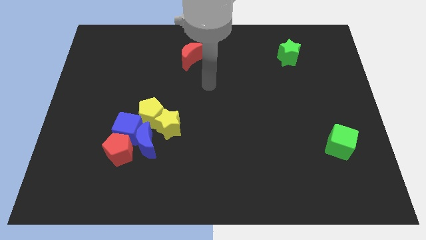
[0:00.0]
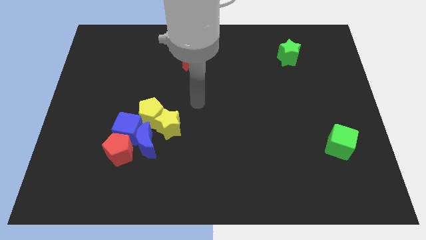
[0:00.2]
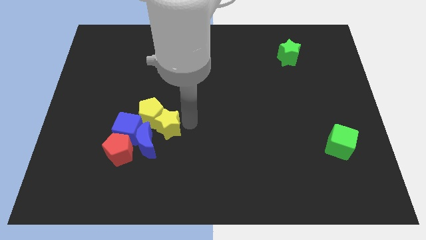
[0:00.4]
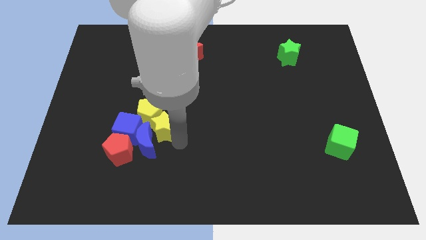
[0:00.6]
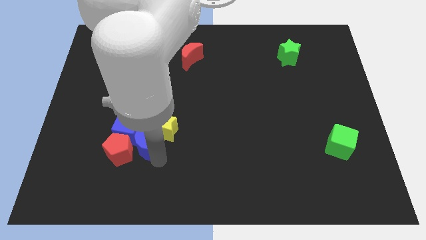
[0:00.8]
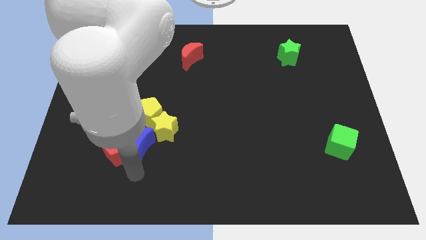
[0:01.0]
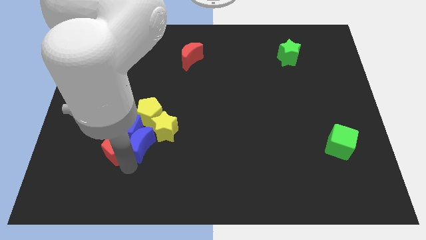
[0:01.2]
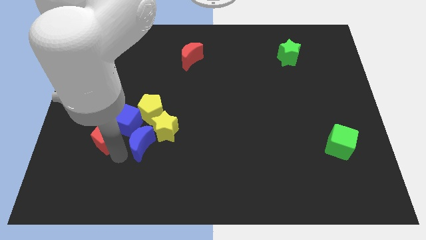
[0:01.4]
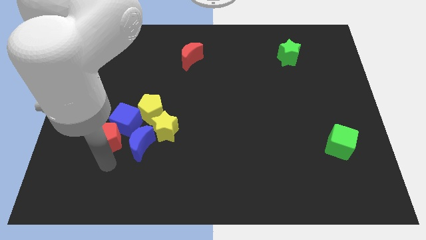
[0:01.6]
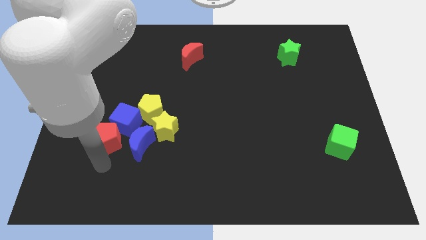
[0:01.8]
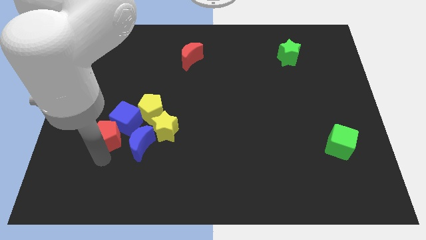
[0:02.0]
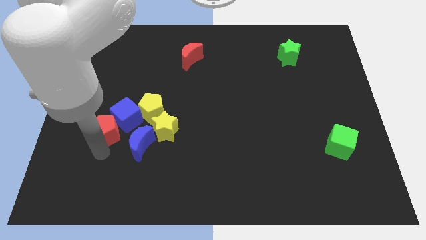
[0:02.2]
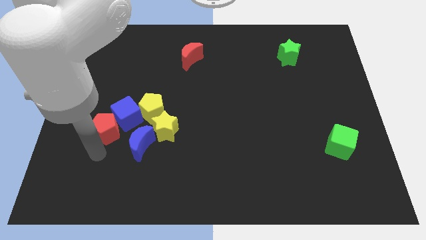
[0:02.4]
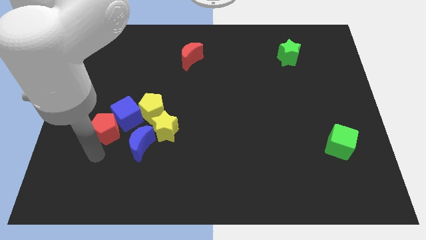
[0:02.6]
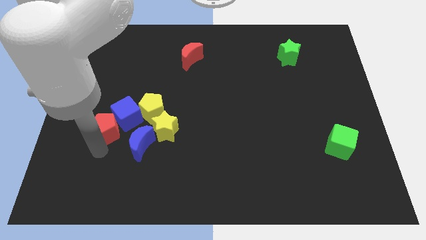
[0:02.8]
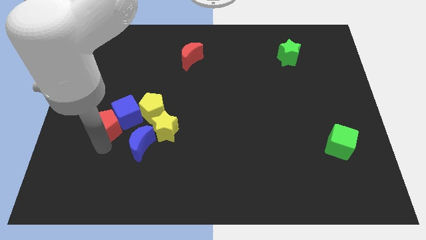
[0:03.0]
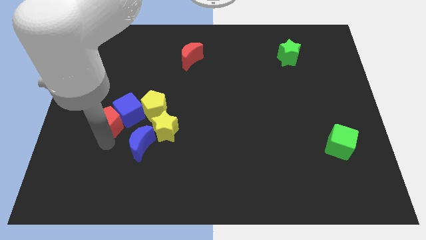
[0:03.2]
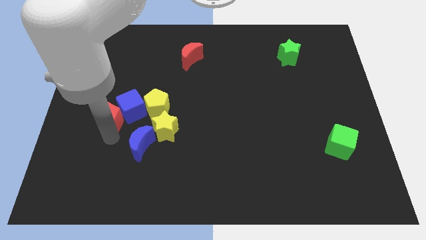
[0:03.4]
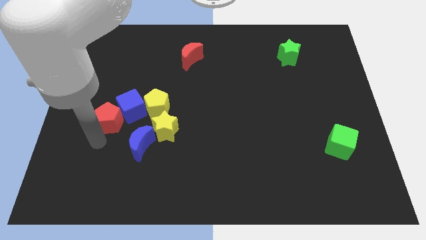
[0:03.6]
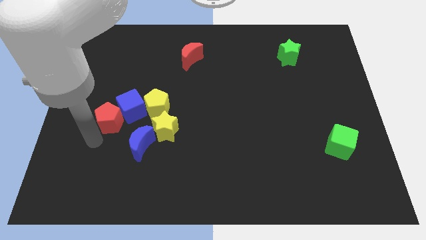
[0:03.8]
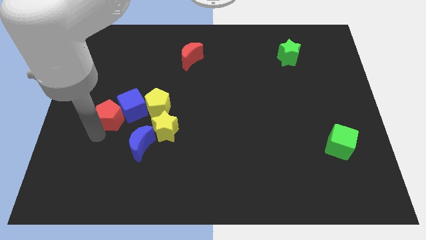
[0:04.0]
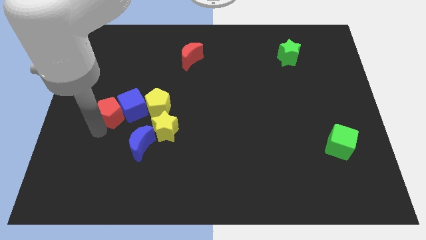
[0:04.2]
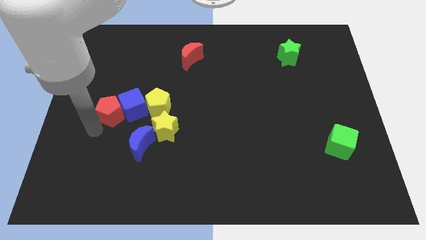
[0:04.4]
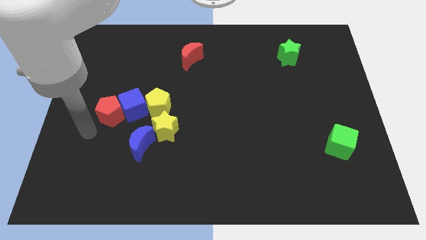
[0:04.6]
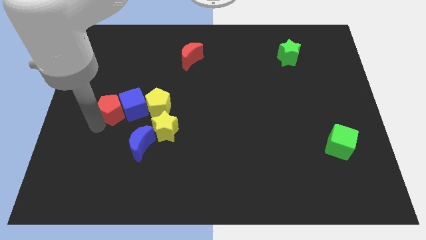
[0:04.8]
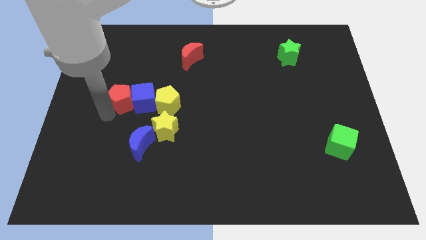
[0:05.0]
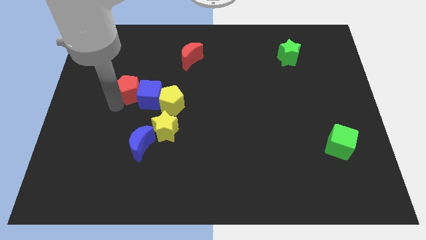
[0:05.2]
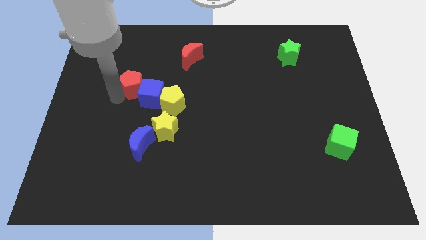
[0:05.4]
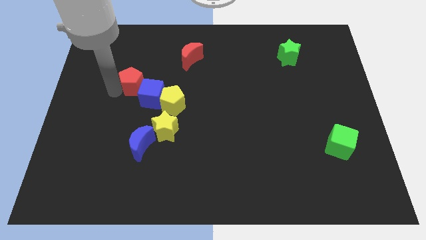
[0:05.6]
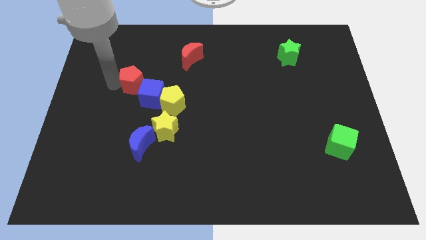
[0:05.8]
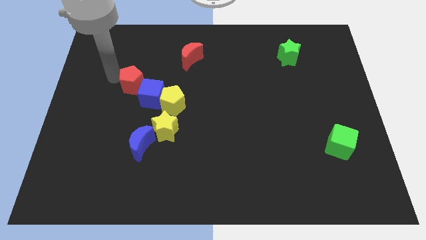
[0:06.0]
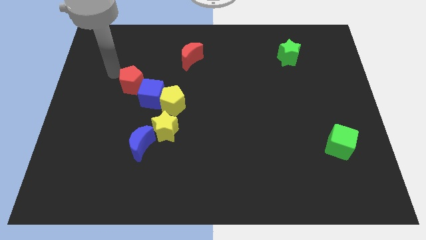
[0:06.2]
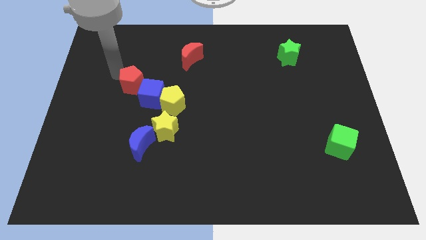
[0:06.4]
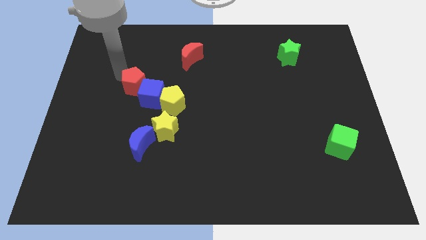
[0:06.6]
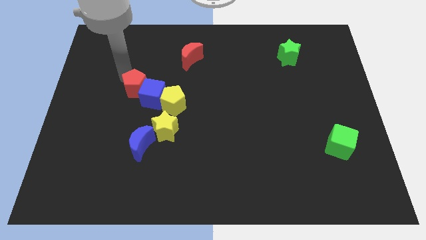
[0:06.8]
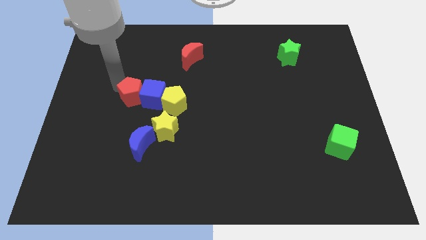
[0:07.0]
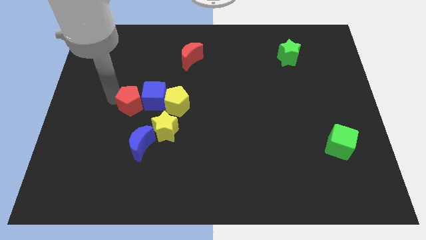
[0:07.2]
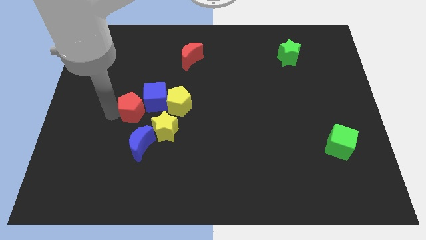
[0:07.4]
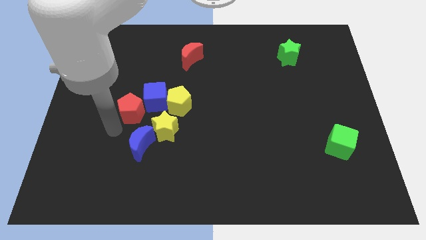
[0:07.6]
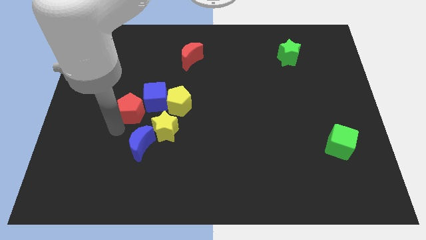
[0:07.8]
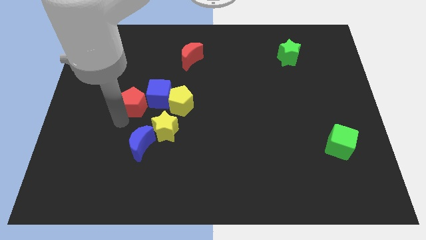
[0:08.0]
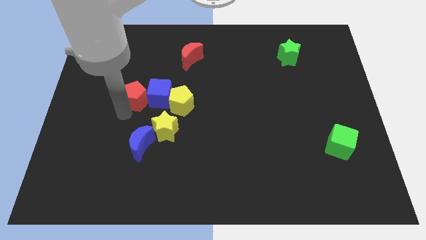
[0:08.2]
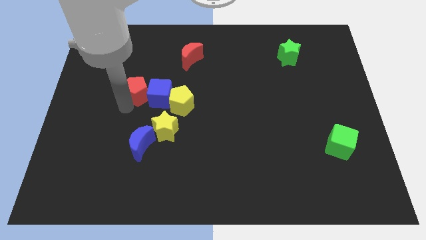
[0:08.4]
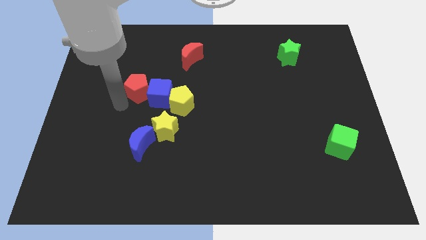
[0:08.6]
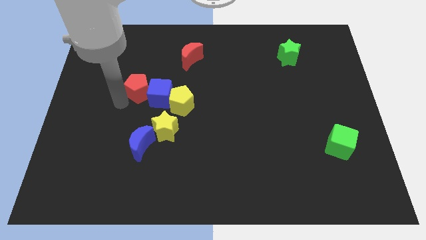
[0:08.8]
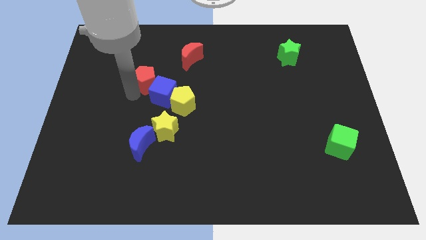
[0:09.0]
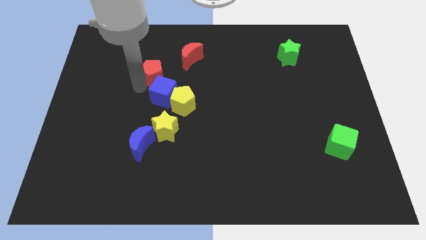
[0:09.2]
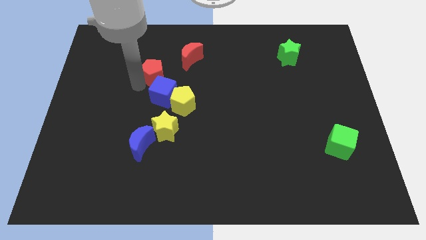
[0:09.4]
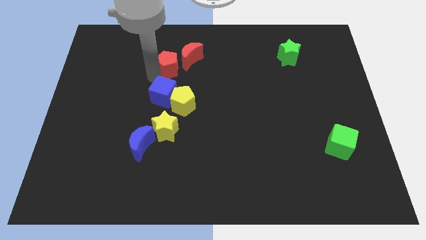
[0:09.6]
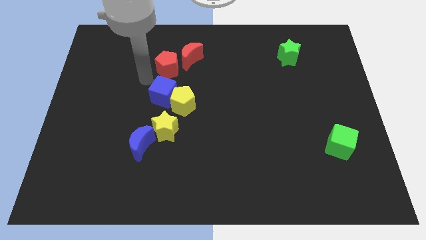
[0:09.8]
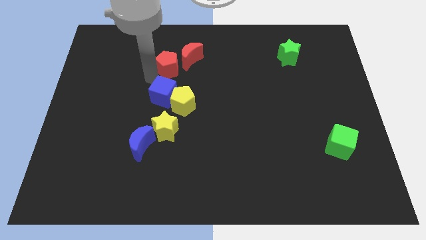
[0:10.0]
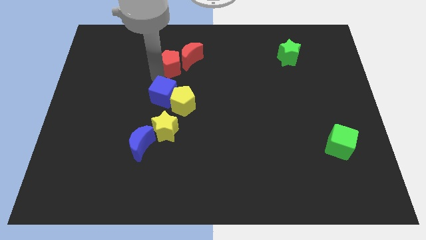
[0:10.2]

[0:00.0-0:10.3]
push the red pentagon towards the red moon
